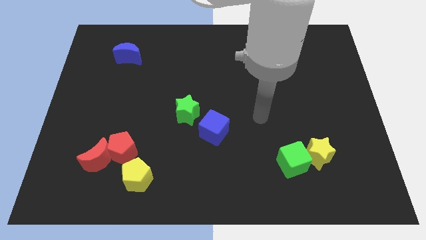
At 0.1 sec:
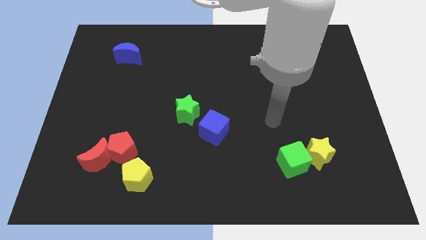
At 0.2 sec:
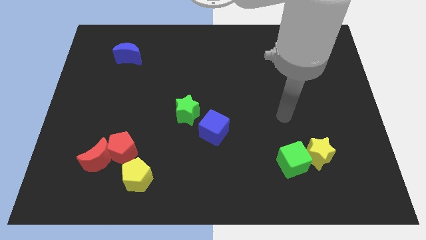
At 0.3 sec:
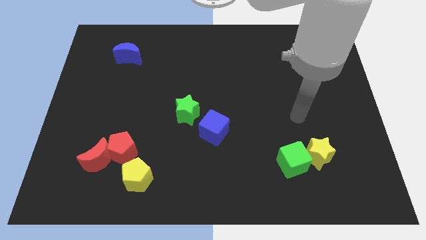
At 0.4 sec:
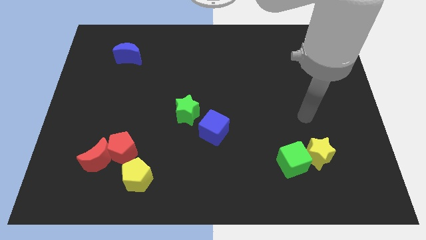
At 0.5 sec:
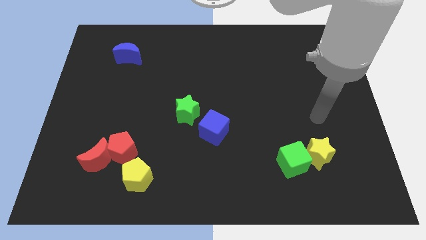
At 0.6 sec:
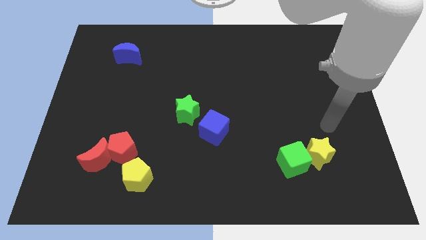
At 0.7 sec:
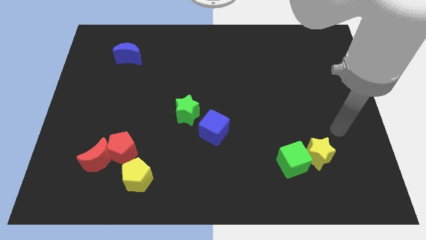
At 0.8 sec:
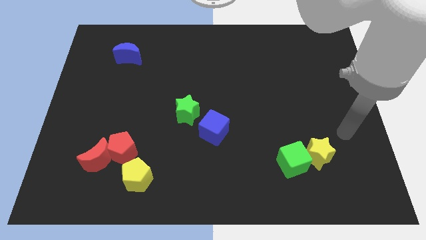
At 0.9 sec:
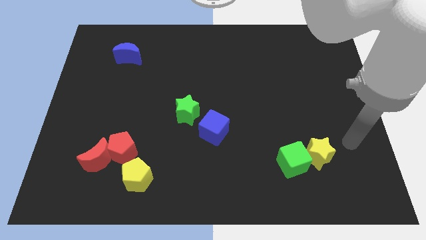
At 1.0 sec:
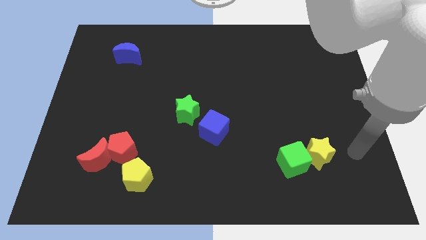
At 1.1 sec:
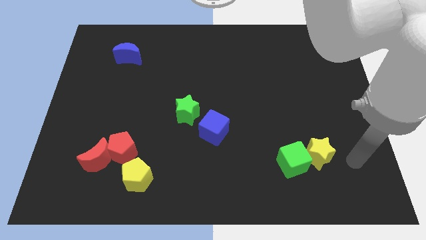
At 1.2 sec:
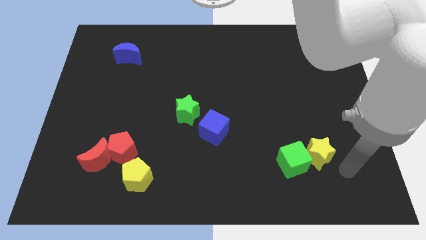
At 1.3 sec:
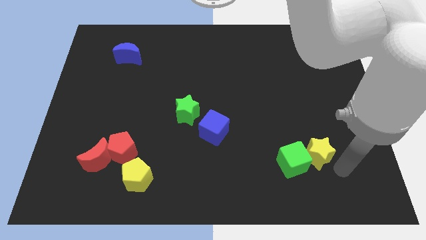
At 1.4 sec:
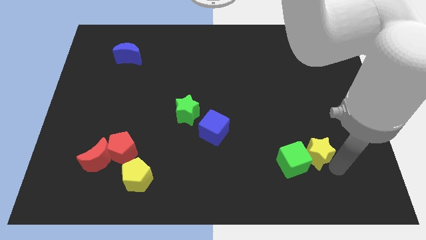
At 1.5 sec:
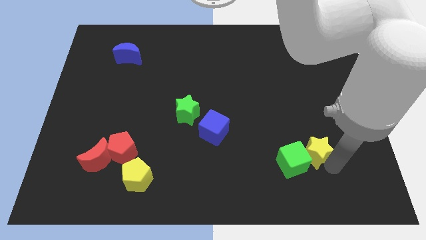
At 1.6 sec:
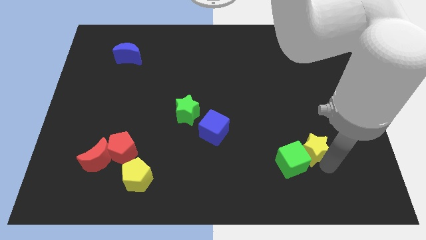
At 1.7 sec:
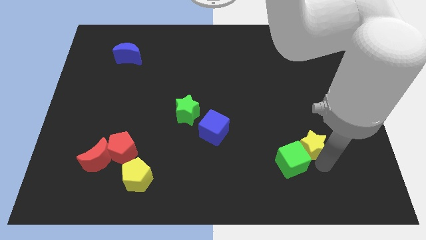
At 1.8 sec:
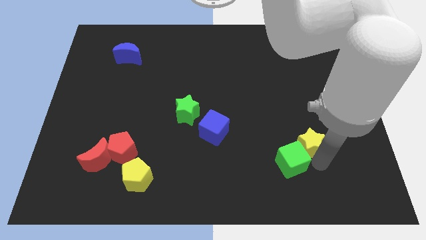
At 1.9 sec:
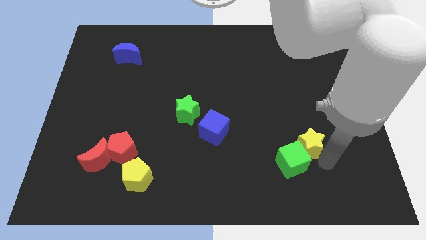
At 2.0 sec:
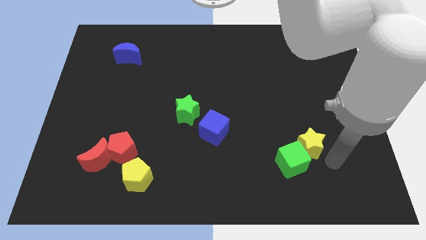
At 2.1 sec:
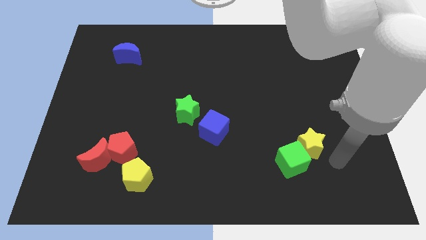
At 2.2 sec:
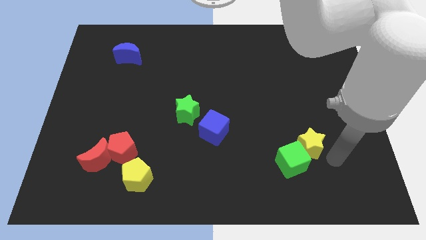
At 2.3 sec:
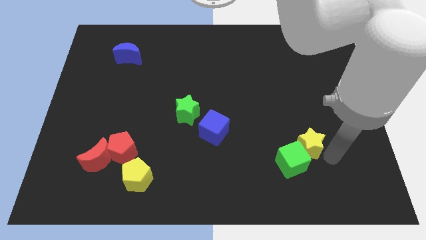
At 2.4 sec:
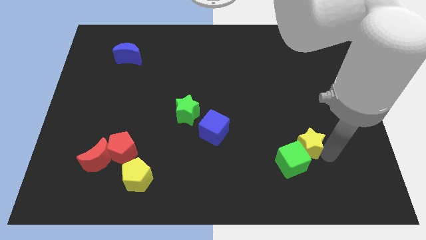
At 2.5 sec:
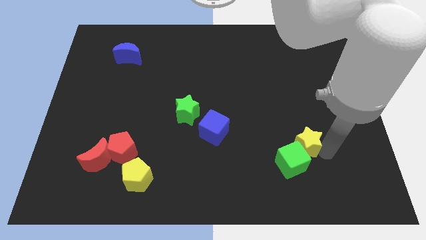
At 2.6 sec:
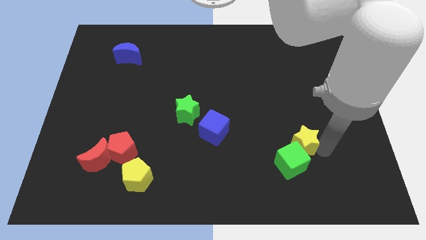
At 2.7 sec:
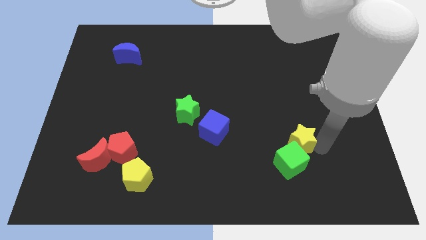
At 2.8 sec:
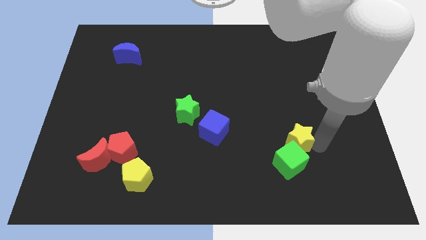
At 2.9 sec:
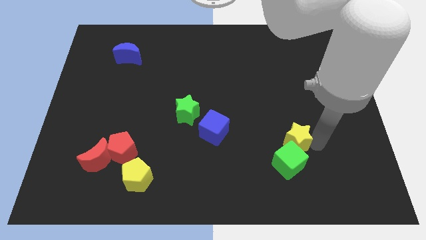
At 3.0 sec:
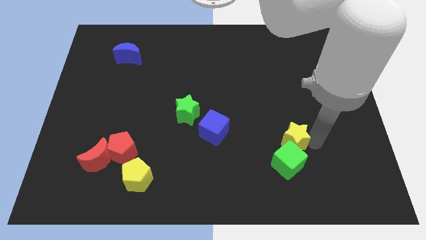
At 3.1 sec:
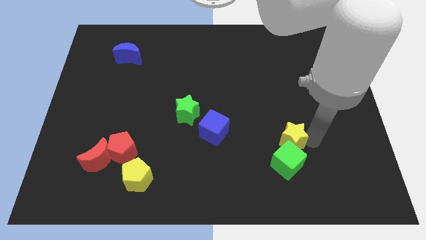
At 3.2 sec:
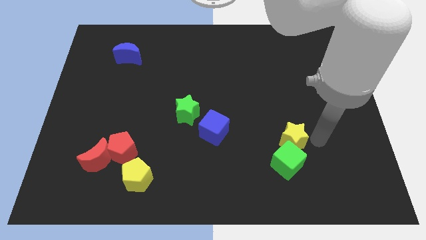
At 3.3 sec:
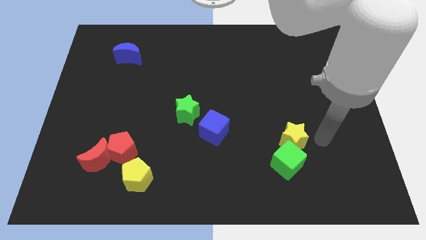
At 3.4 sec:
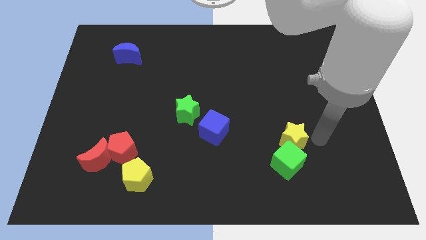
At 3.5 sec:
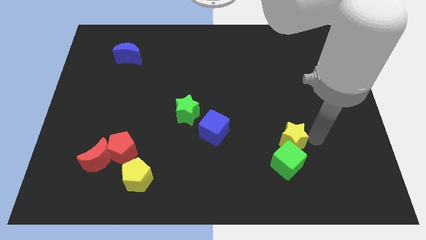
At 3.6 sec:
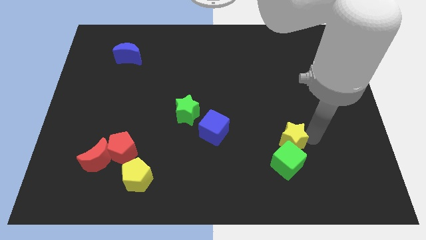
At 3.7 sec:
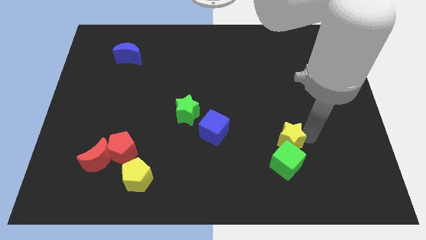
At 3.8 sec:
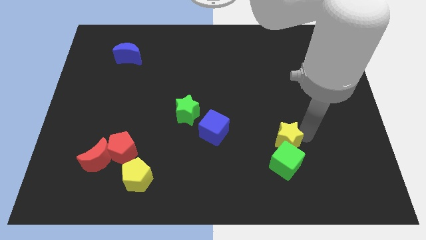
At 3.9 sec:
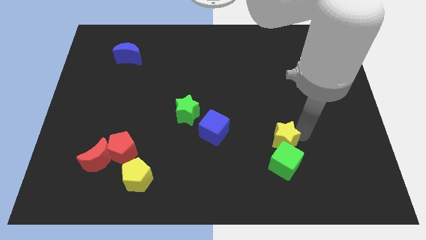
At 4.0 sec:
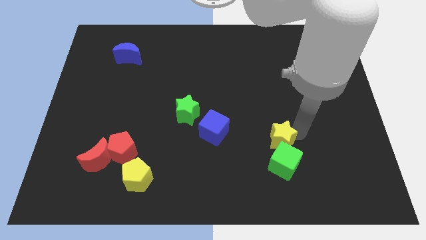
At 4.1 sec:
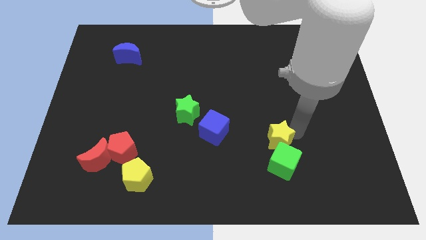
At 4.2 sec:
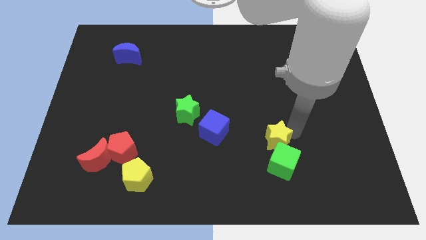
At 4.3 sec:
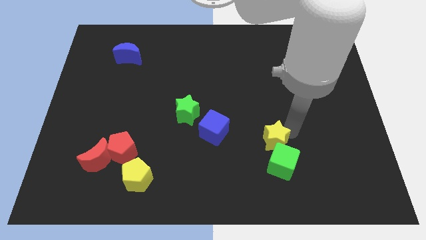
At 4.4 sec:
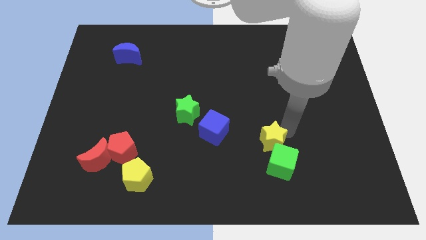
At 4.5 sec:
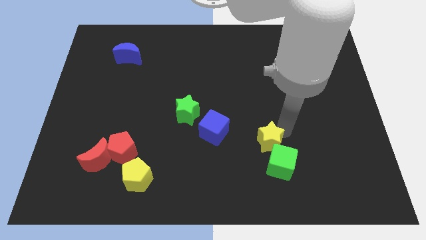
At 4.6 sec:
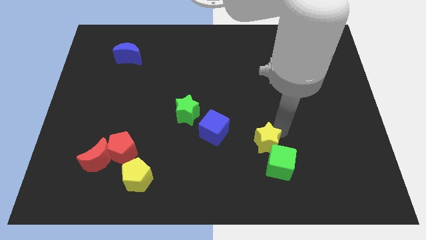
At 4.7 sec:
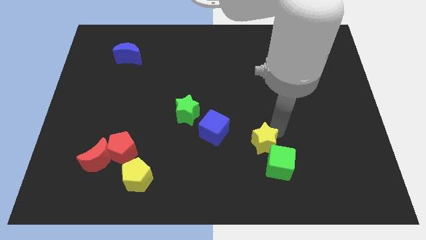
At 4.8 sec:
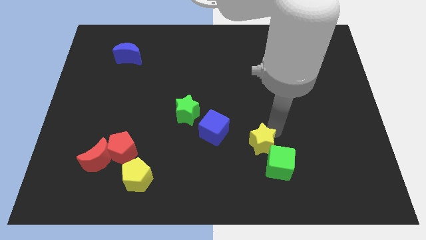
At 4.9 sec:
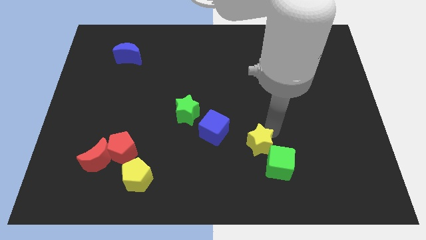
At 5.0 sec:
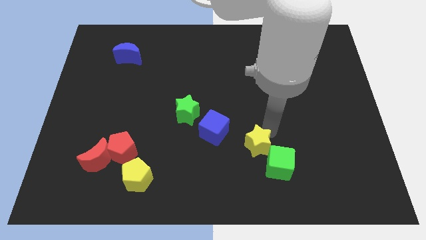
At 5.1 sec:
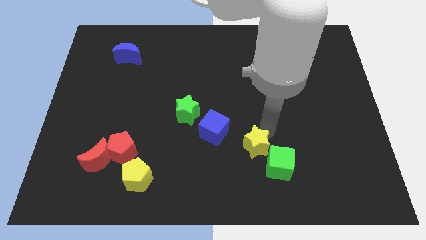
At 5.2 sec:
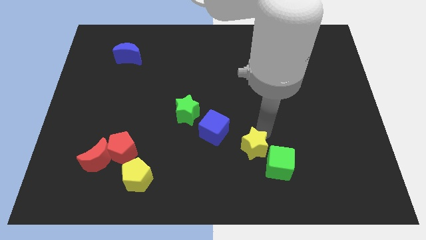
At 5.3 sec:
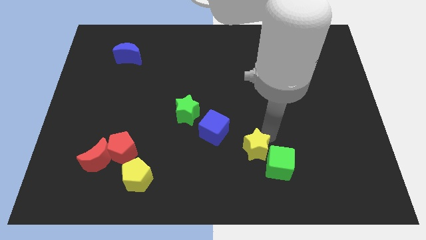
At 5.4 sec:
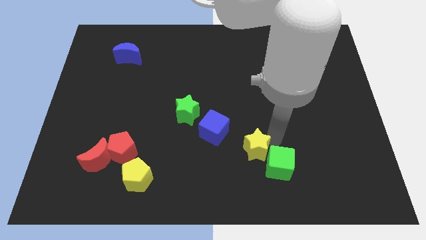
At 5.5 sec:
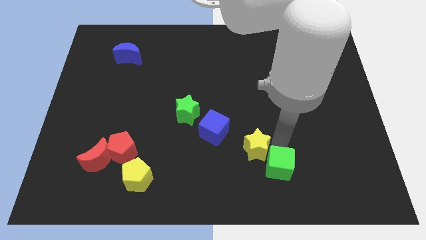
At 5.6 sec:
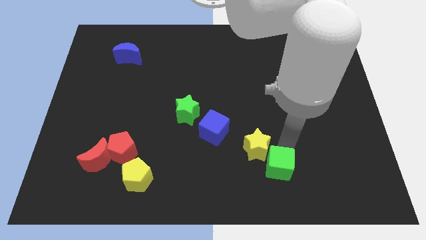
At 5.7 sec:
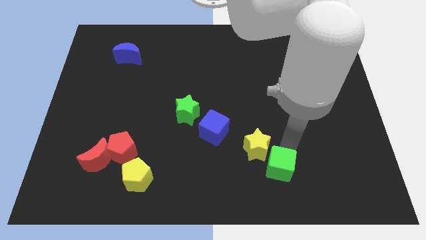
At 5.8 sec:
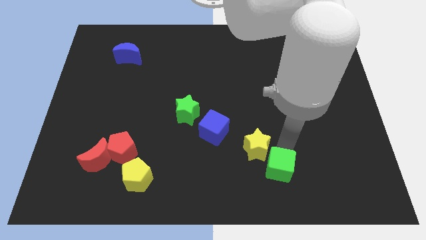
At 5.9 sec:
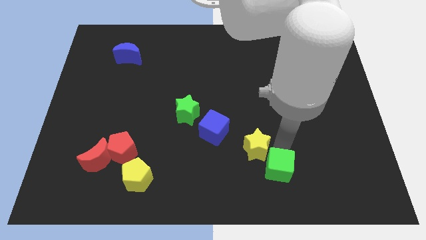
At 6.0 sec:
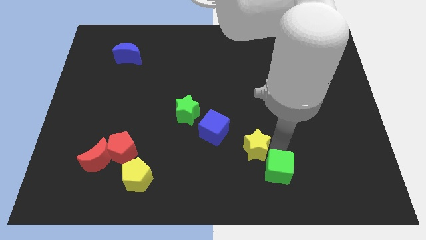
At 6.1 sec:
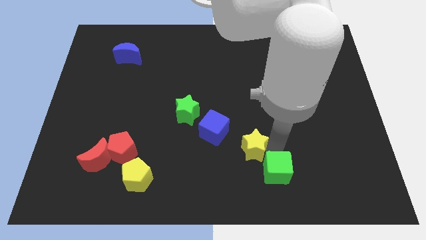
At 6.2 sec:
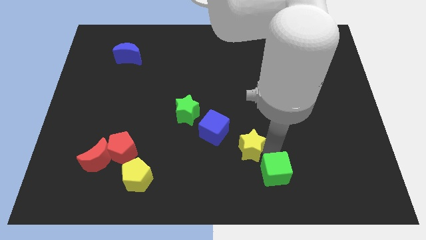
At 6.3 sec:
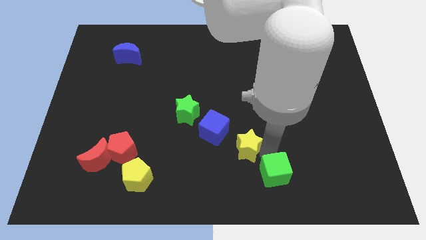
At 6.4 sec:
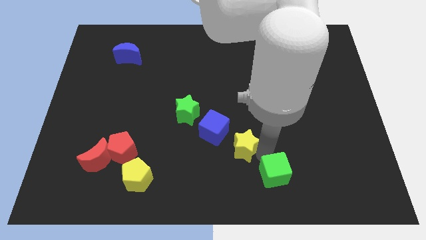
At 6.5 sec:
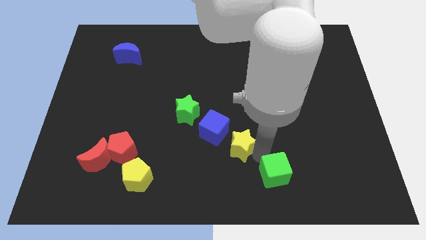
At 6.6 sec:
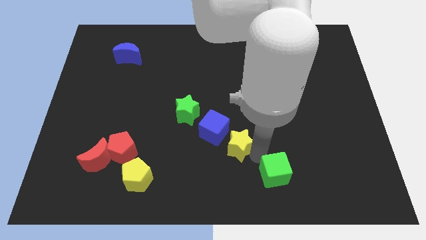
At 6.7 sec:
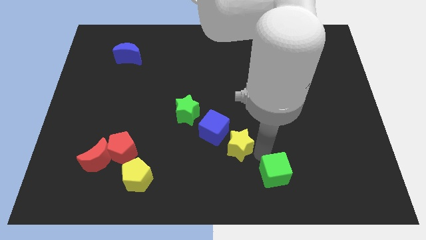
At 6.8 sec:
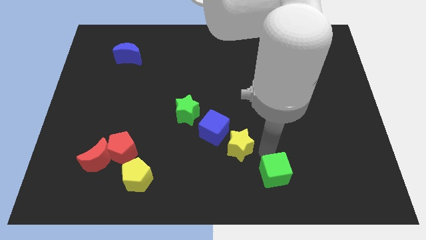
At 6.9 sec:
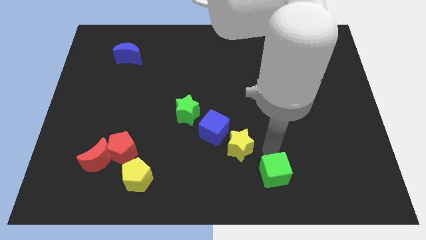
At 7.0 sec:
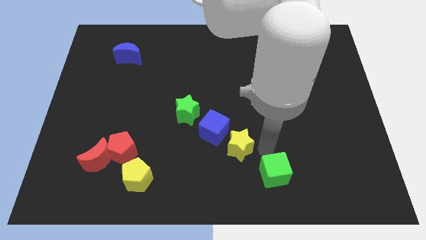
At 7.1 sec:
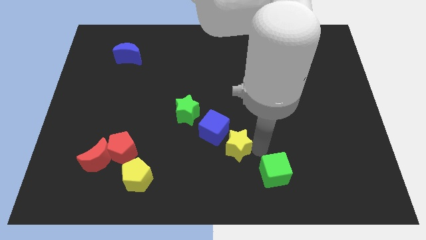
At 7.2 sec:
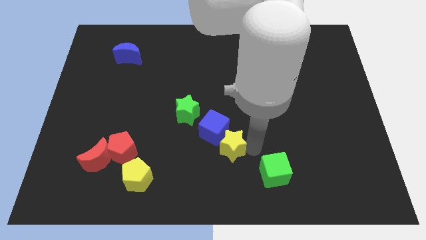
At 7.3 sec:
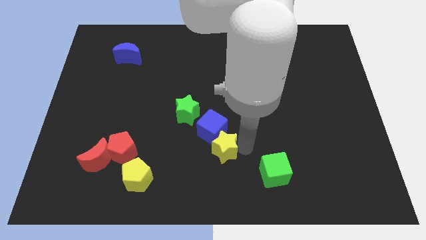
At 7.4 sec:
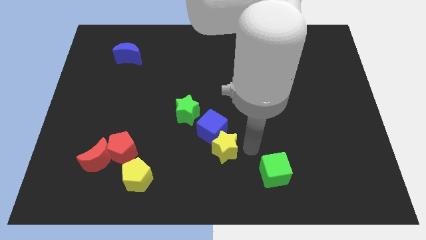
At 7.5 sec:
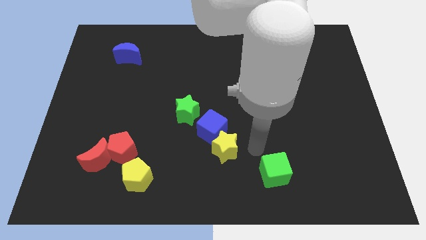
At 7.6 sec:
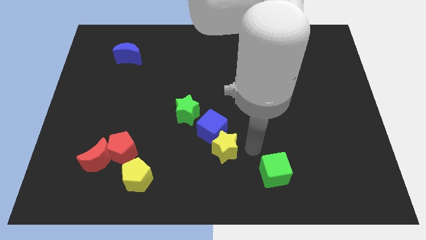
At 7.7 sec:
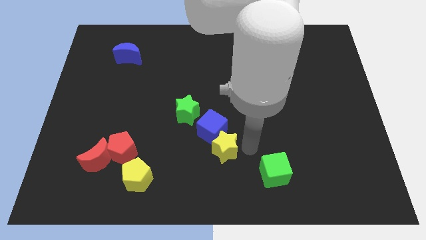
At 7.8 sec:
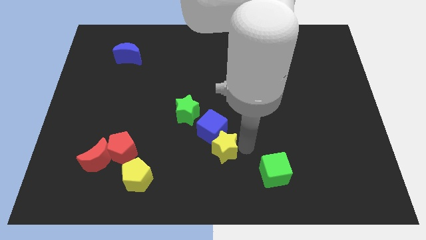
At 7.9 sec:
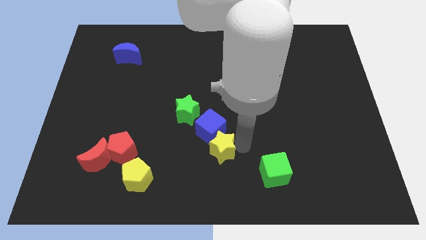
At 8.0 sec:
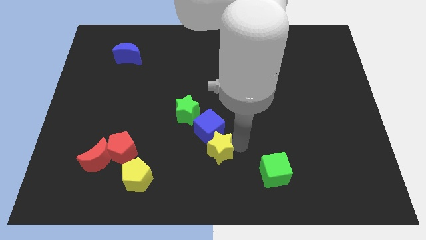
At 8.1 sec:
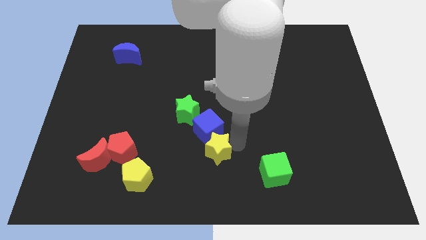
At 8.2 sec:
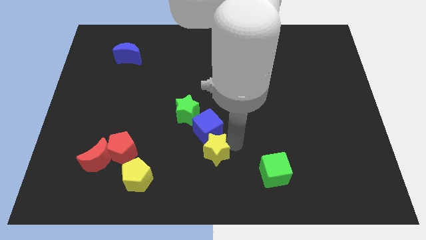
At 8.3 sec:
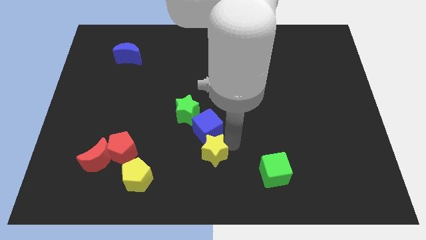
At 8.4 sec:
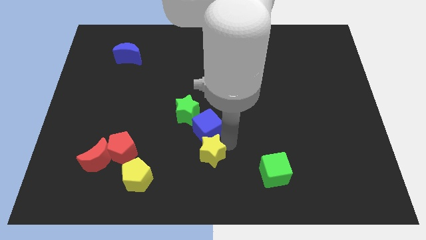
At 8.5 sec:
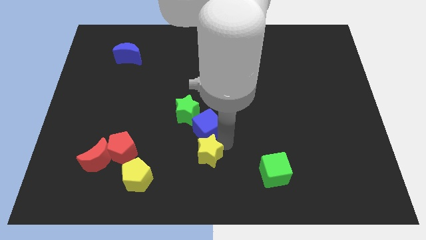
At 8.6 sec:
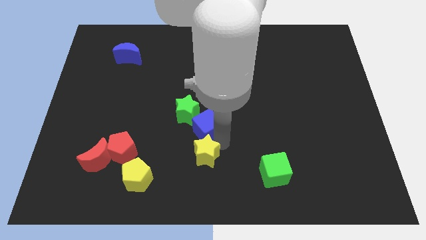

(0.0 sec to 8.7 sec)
slide the yellow star to the bottom side of the green star
